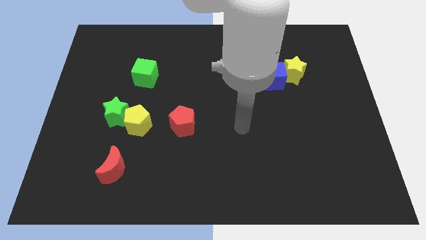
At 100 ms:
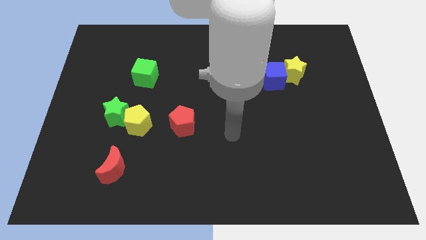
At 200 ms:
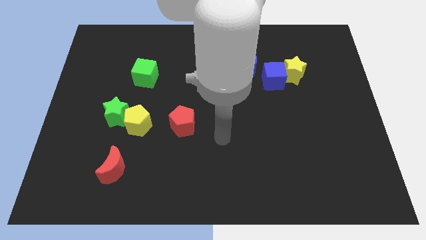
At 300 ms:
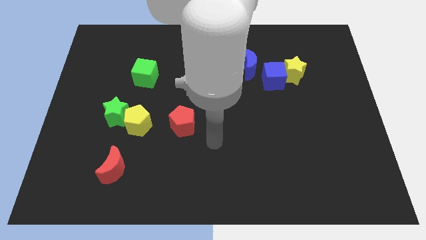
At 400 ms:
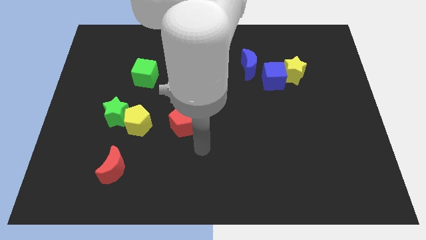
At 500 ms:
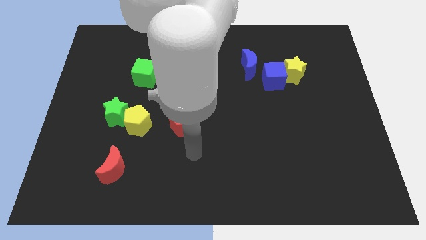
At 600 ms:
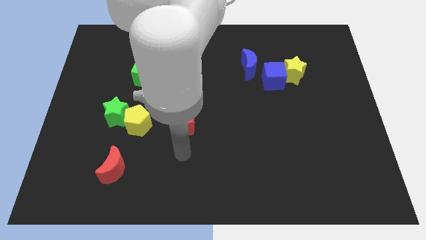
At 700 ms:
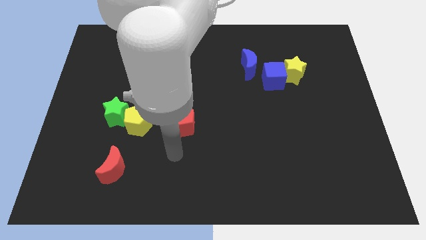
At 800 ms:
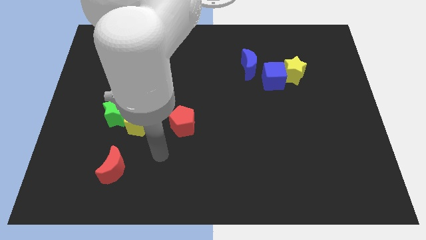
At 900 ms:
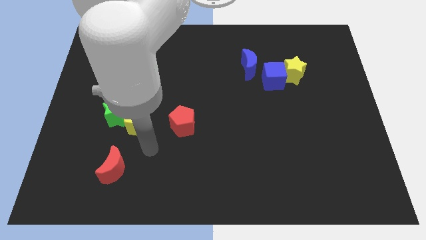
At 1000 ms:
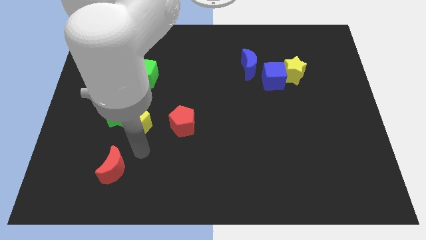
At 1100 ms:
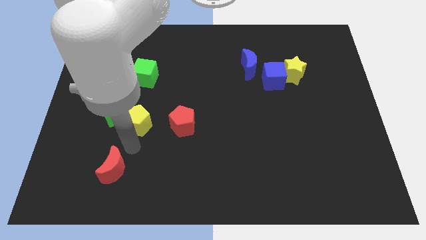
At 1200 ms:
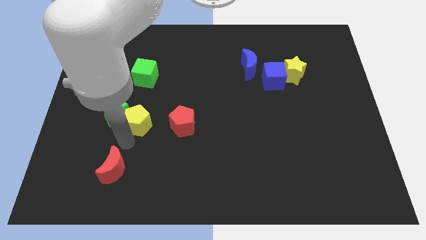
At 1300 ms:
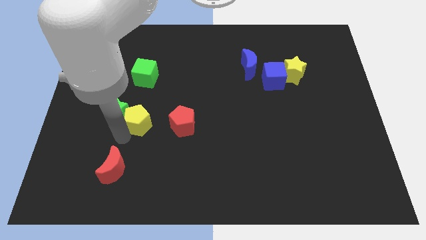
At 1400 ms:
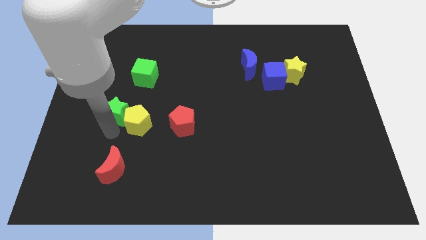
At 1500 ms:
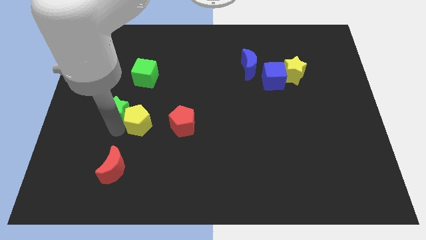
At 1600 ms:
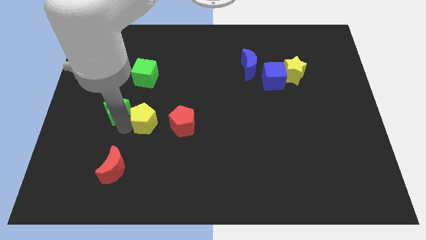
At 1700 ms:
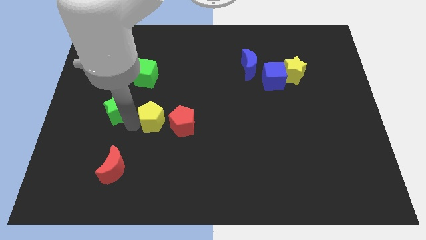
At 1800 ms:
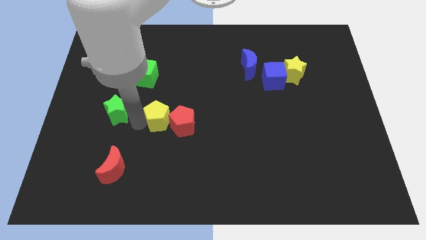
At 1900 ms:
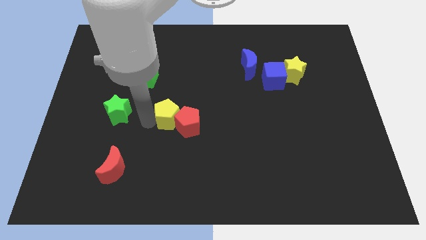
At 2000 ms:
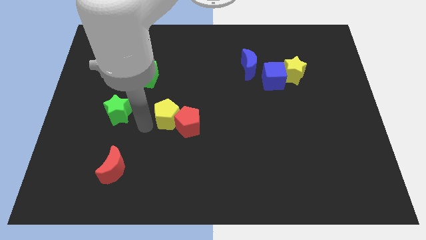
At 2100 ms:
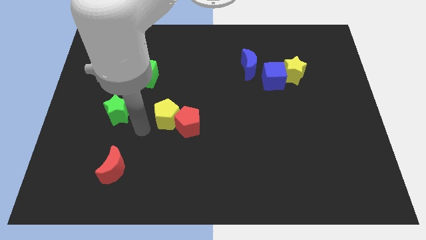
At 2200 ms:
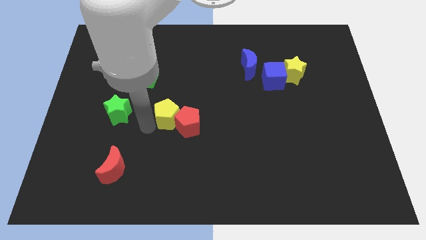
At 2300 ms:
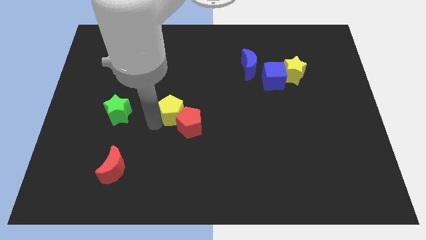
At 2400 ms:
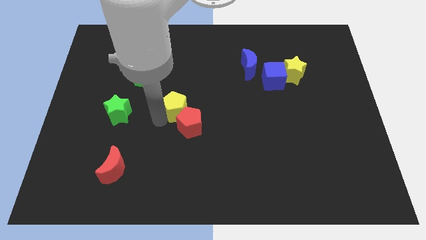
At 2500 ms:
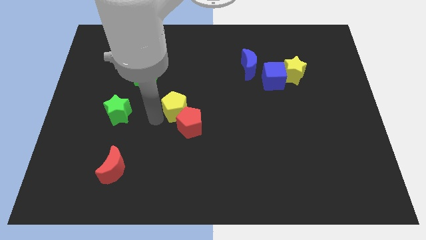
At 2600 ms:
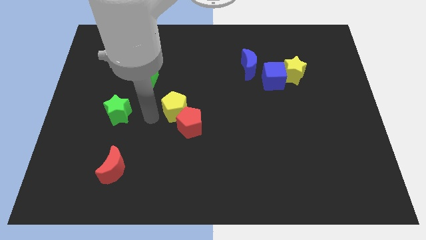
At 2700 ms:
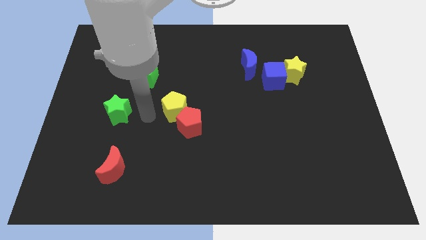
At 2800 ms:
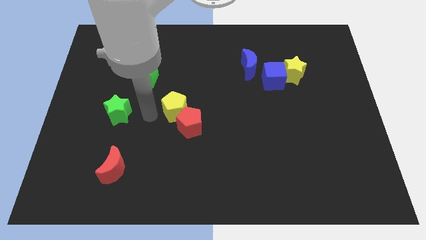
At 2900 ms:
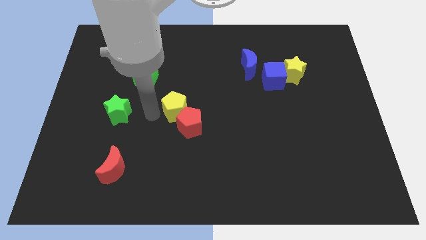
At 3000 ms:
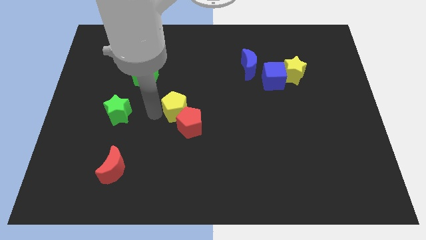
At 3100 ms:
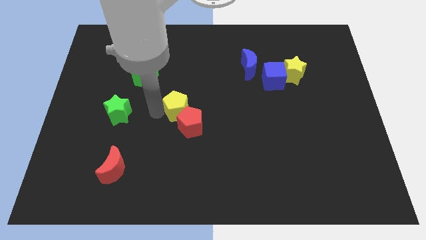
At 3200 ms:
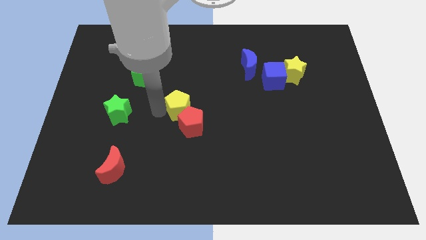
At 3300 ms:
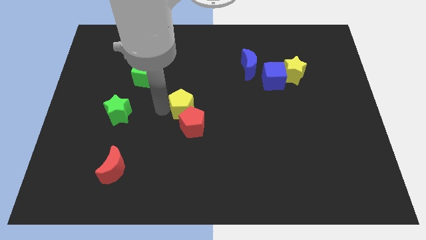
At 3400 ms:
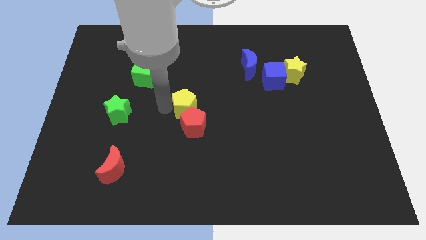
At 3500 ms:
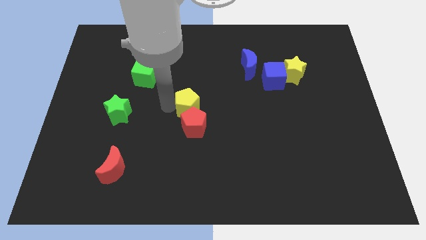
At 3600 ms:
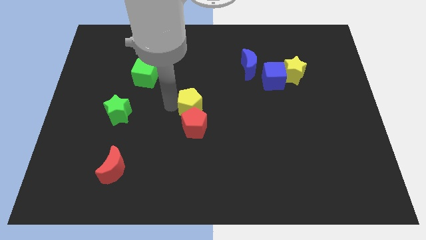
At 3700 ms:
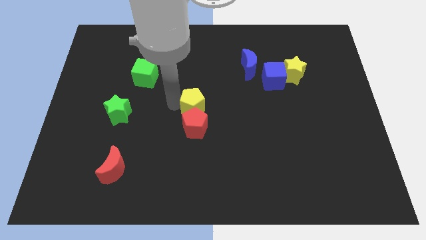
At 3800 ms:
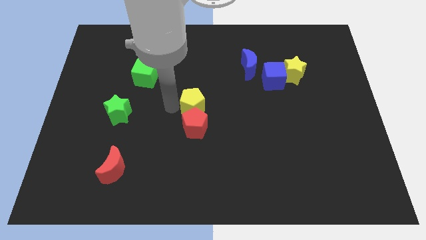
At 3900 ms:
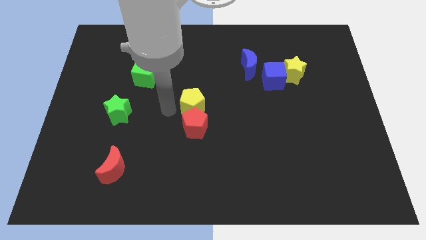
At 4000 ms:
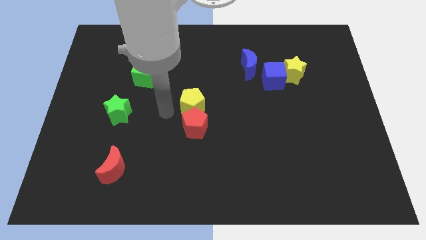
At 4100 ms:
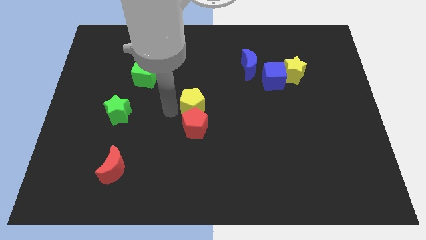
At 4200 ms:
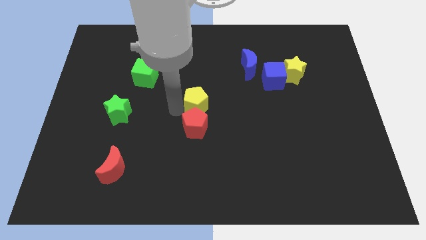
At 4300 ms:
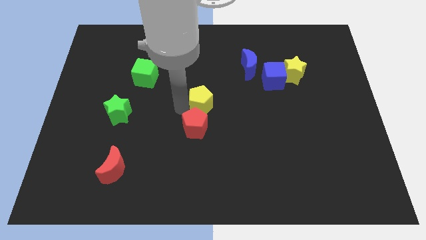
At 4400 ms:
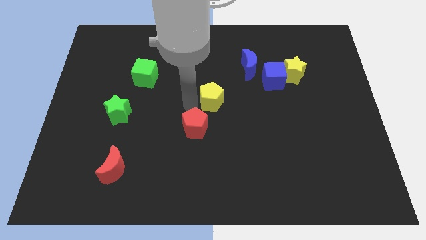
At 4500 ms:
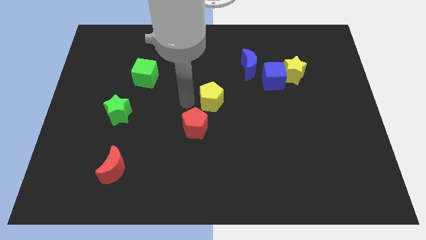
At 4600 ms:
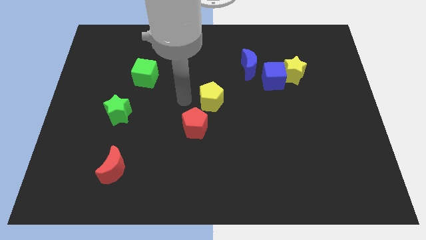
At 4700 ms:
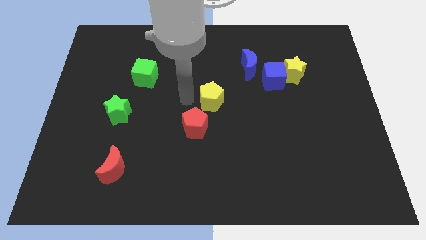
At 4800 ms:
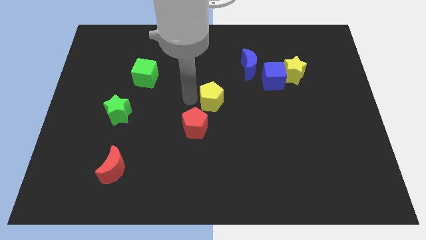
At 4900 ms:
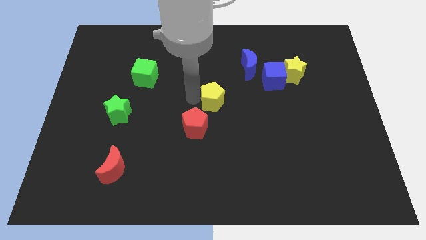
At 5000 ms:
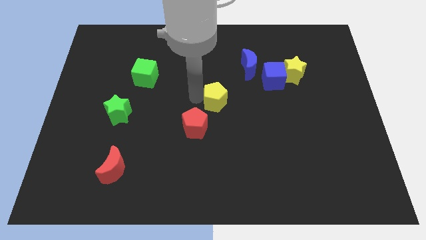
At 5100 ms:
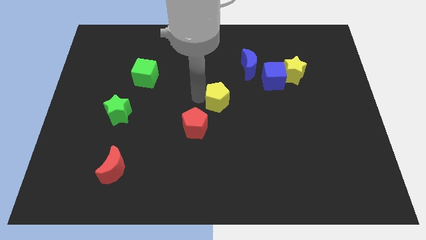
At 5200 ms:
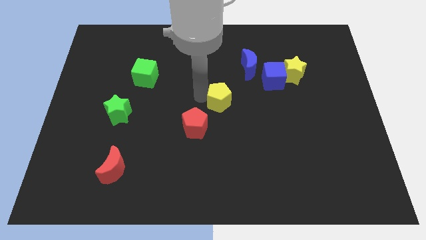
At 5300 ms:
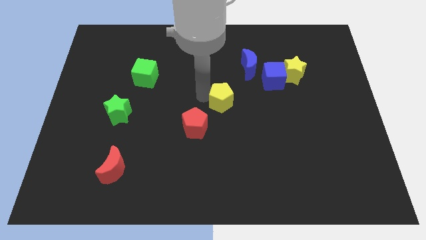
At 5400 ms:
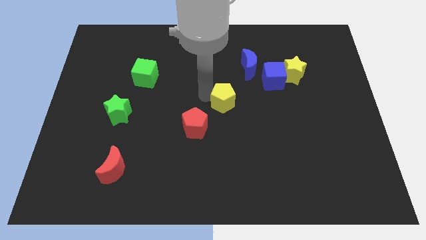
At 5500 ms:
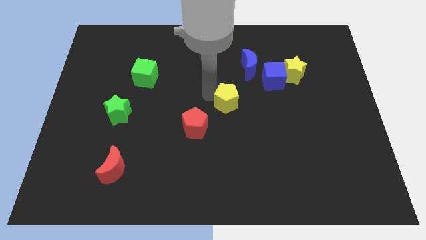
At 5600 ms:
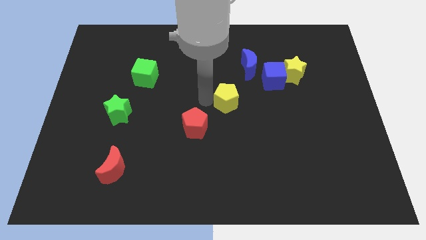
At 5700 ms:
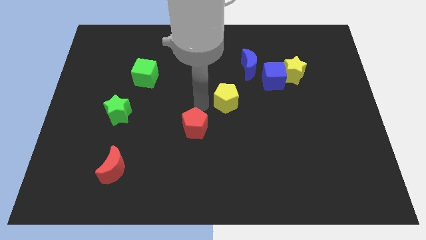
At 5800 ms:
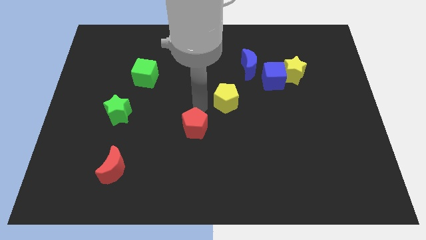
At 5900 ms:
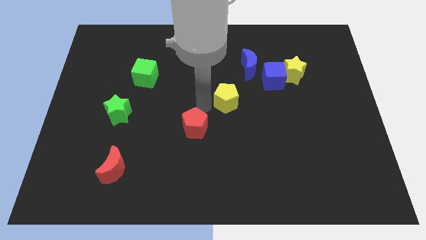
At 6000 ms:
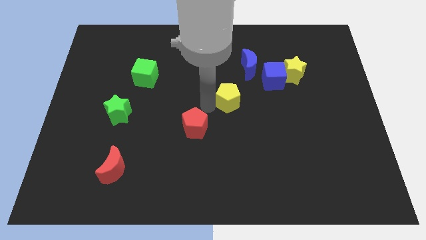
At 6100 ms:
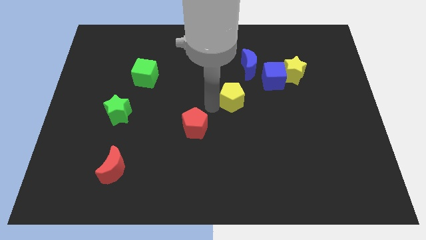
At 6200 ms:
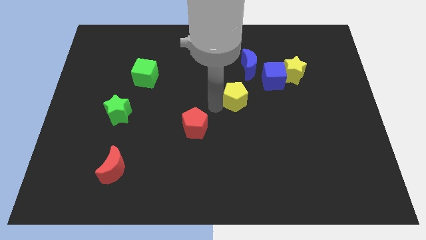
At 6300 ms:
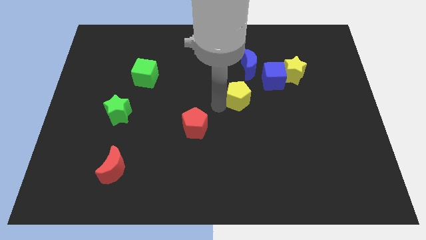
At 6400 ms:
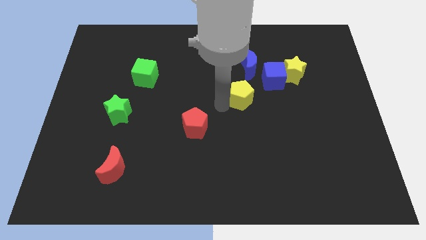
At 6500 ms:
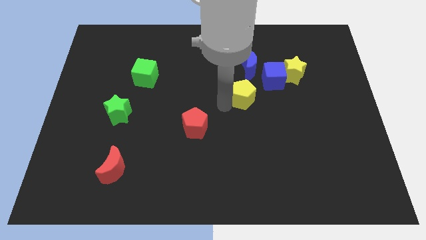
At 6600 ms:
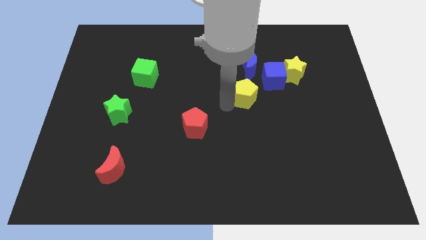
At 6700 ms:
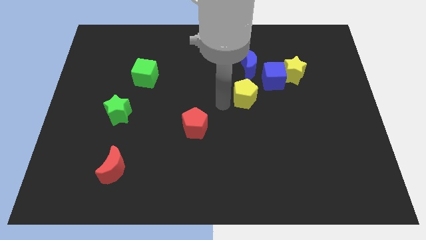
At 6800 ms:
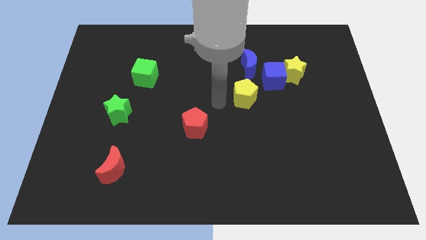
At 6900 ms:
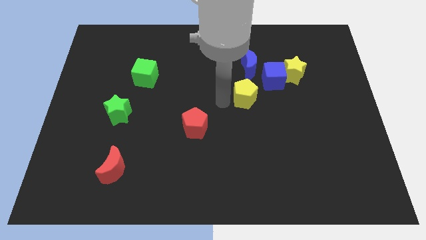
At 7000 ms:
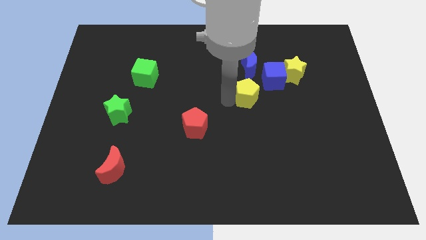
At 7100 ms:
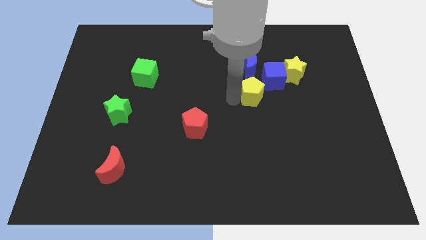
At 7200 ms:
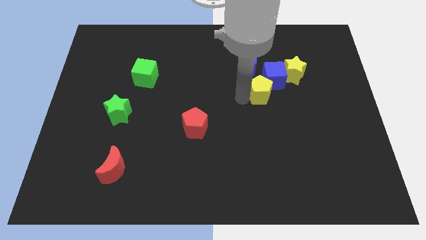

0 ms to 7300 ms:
put the yellow pentagon towards the blue cube

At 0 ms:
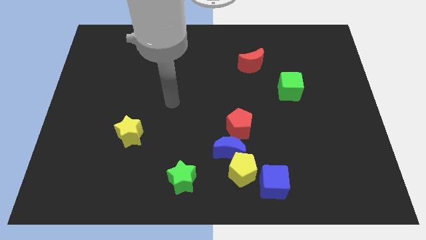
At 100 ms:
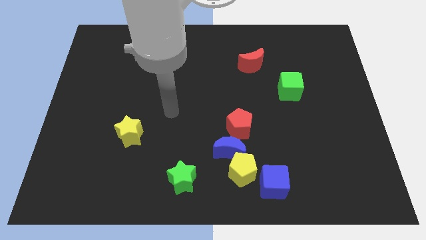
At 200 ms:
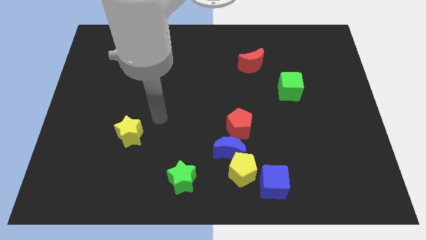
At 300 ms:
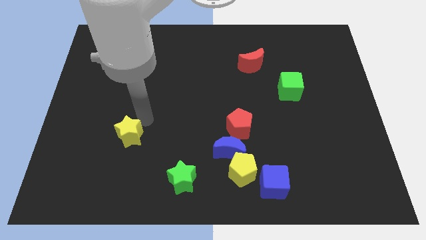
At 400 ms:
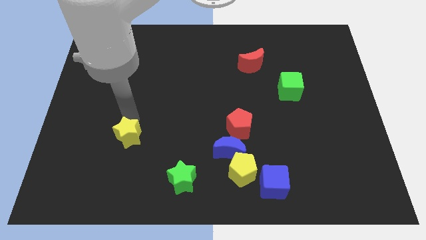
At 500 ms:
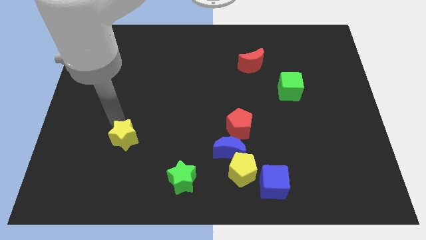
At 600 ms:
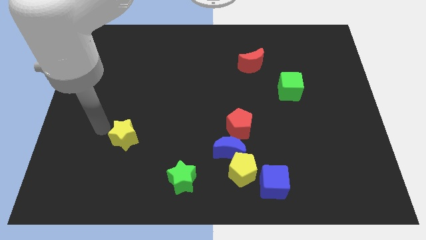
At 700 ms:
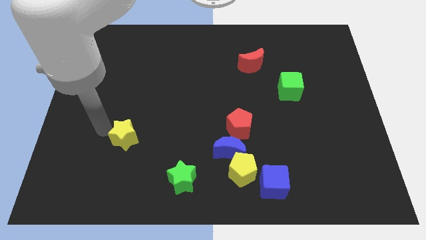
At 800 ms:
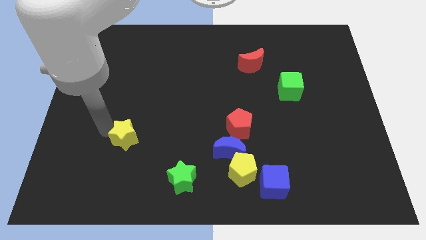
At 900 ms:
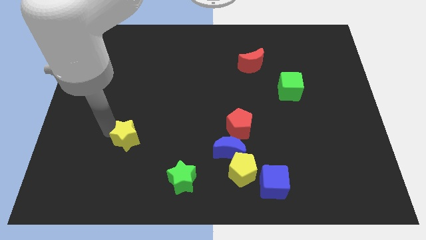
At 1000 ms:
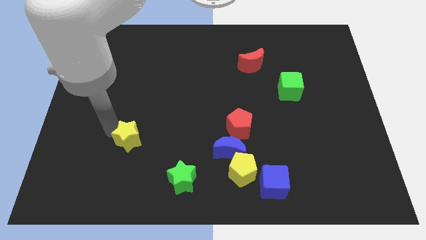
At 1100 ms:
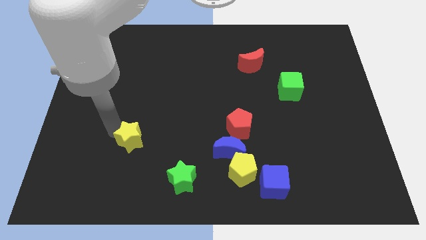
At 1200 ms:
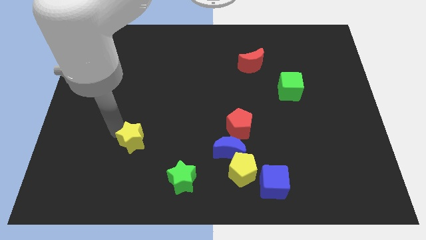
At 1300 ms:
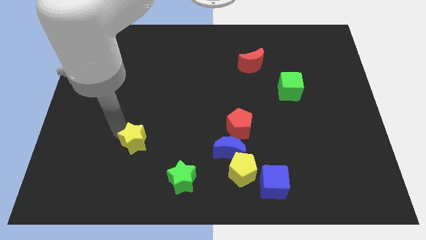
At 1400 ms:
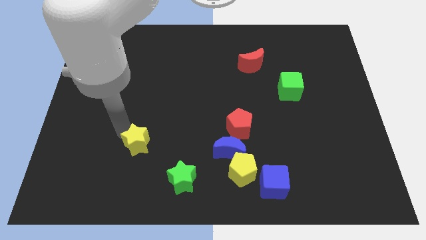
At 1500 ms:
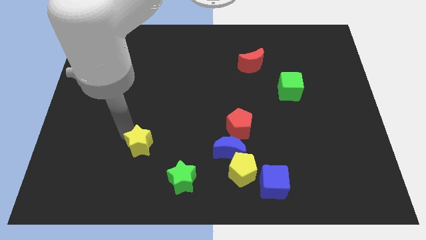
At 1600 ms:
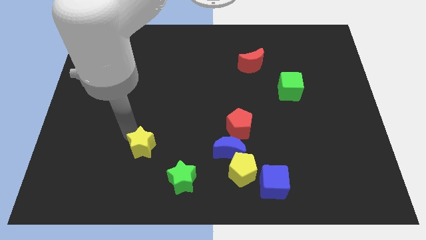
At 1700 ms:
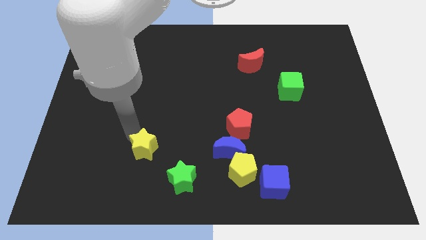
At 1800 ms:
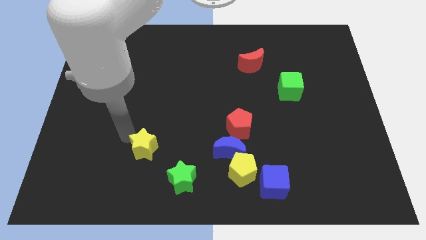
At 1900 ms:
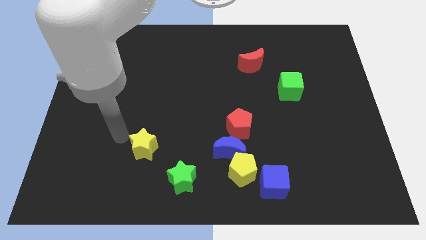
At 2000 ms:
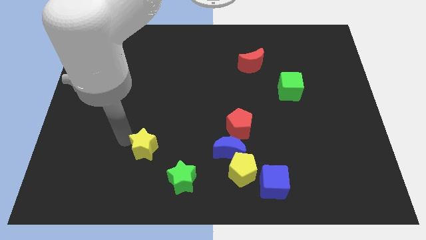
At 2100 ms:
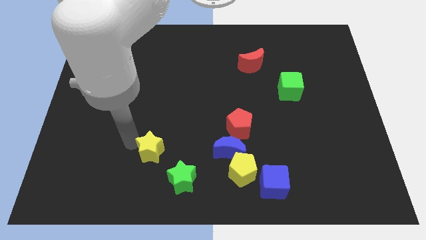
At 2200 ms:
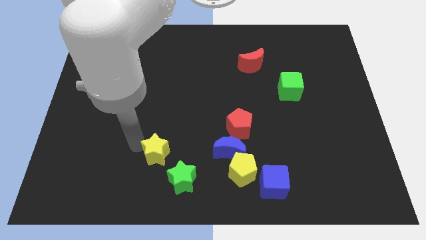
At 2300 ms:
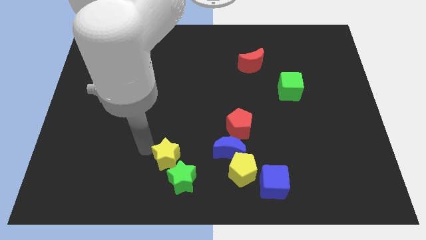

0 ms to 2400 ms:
push the yellow star towards the green star
